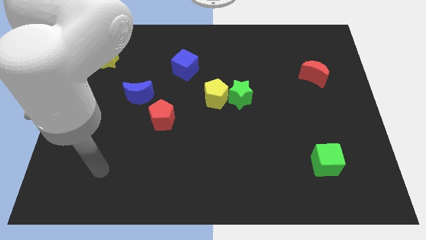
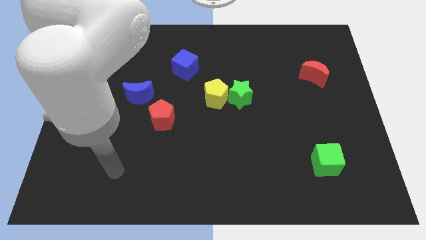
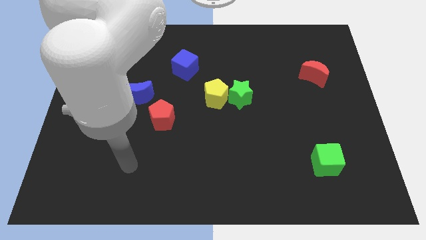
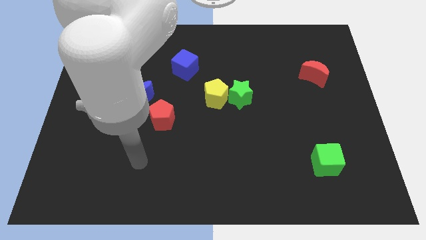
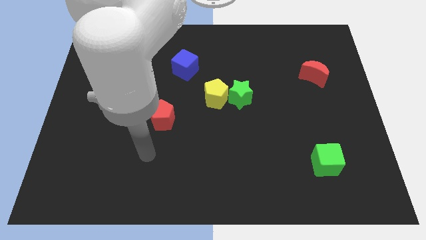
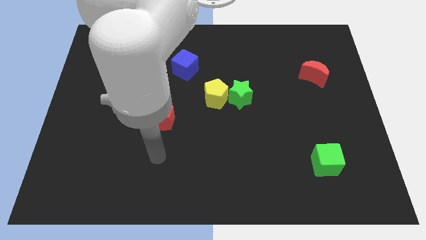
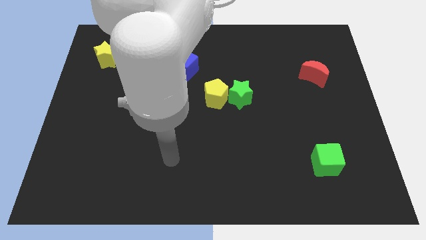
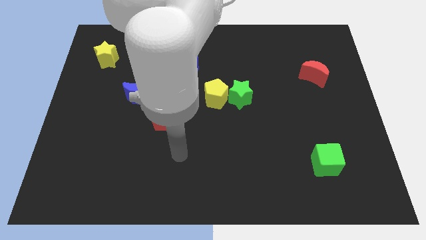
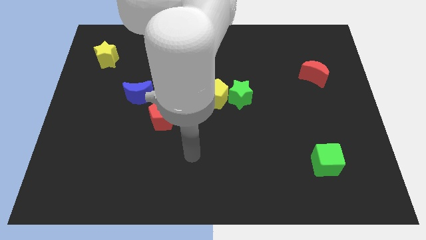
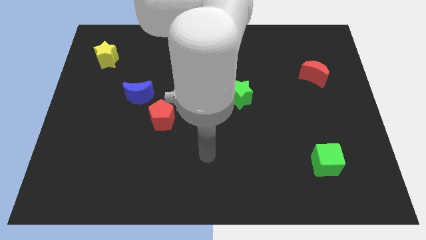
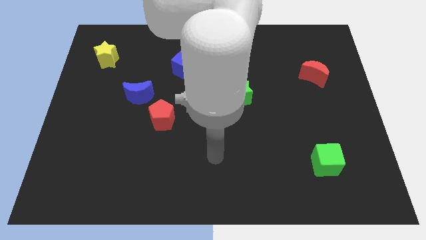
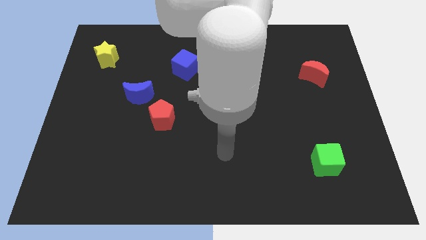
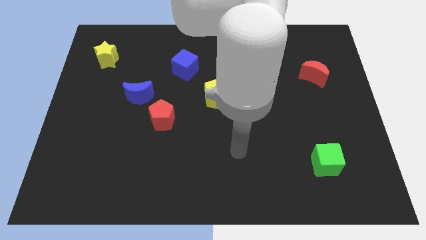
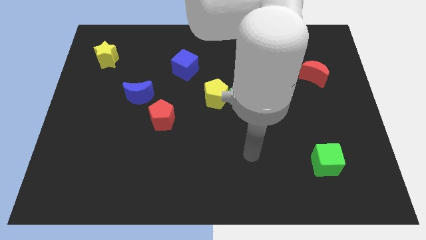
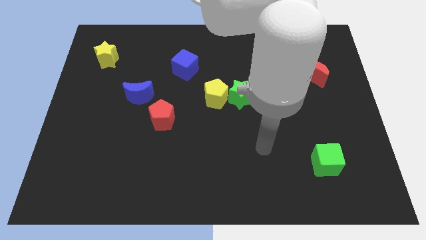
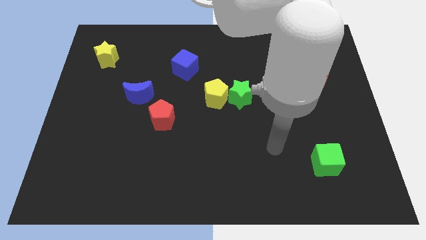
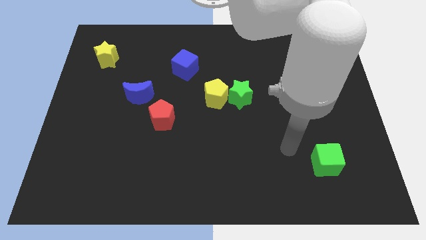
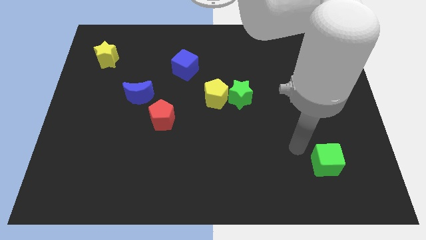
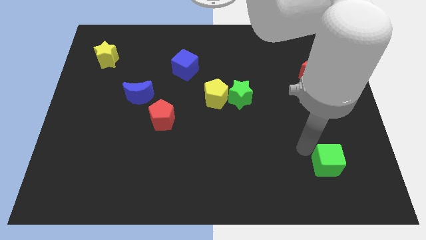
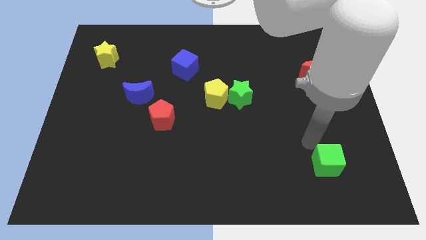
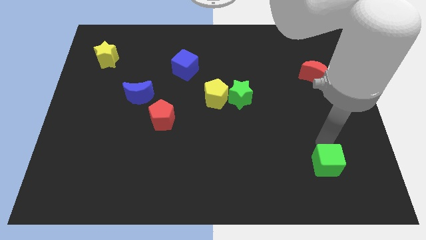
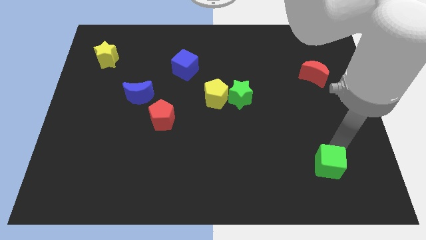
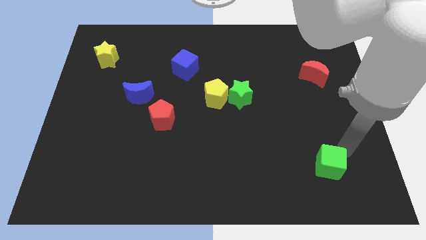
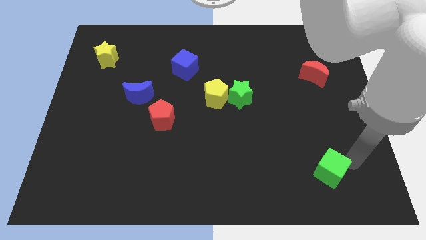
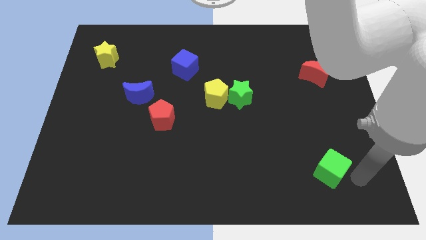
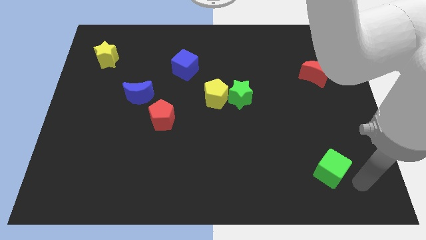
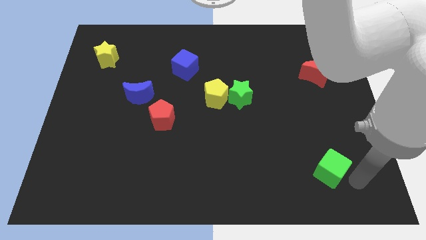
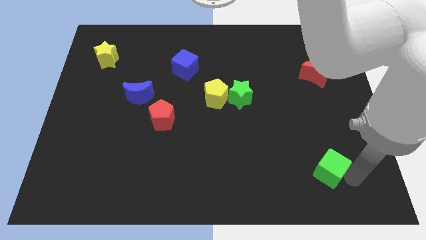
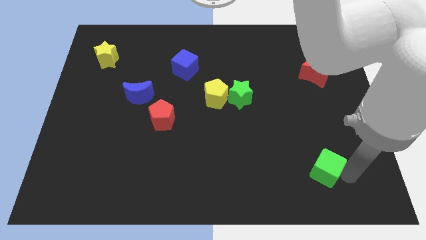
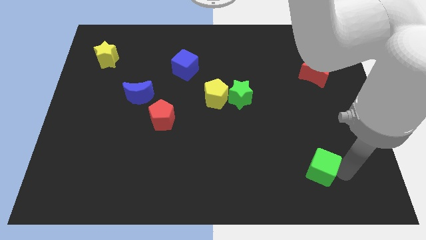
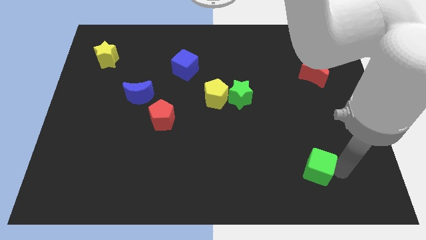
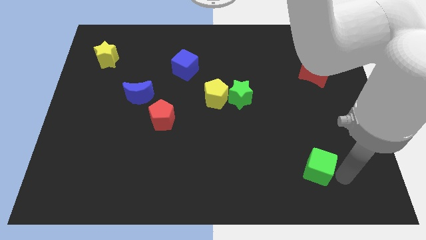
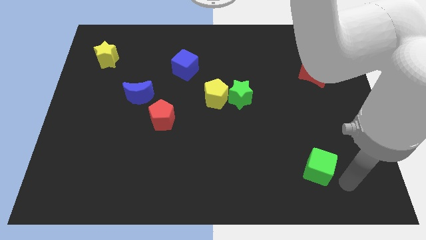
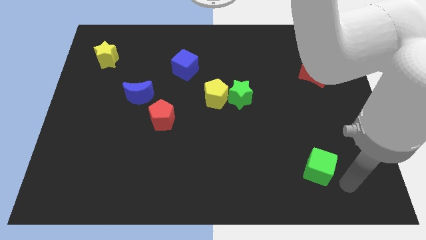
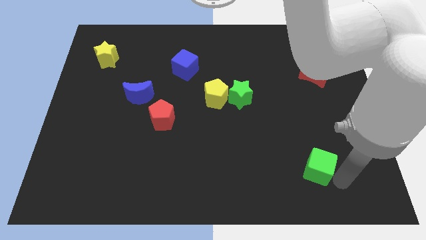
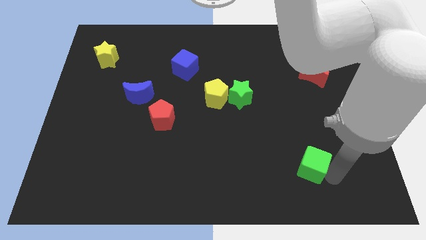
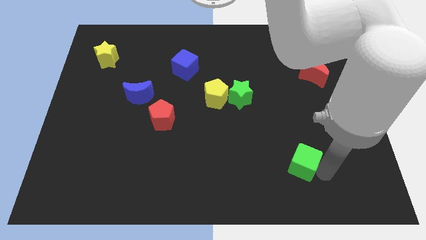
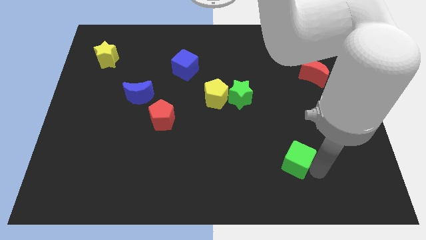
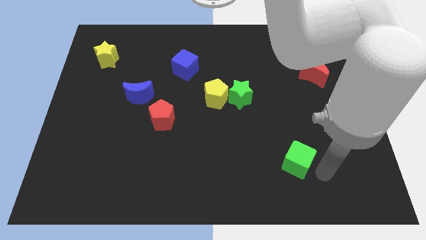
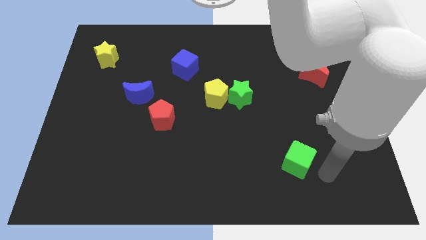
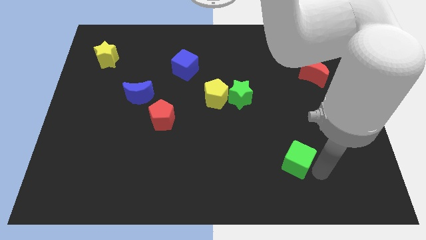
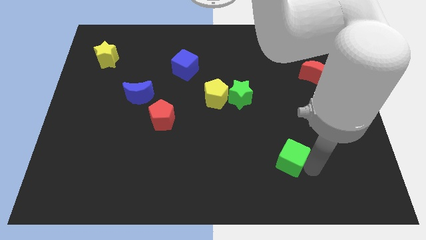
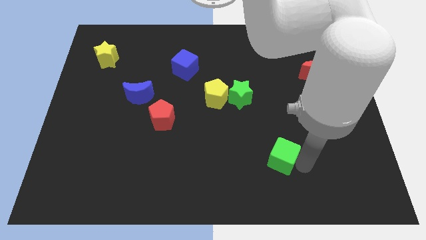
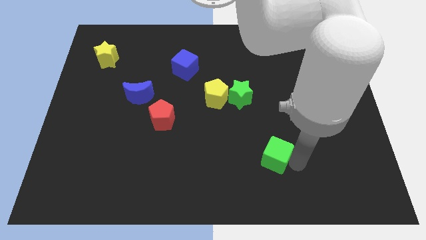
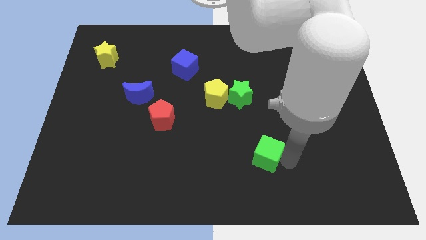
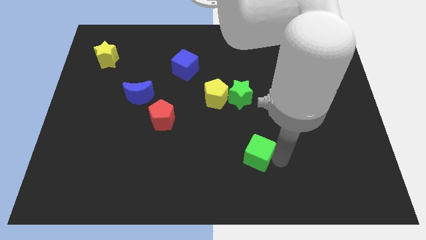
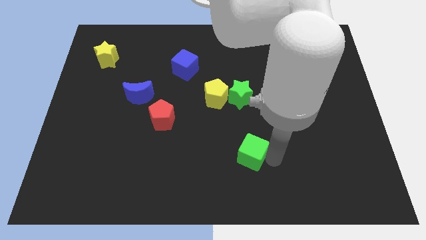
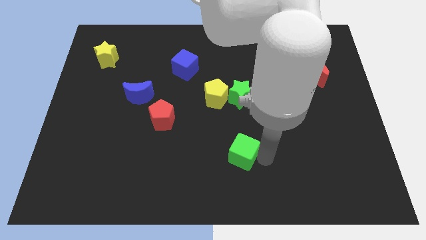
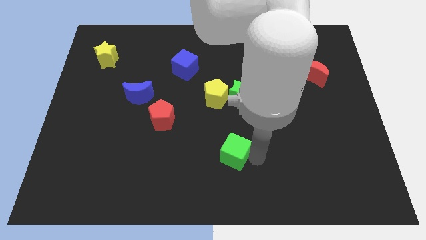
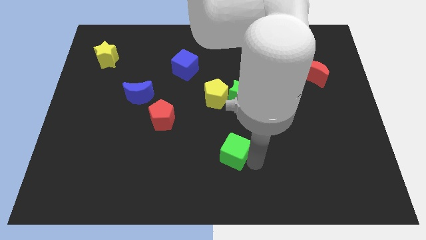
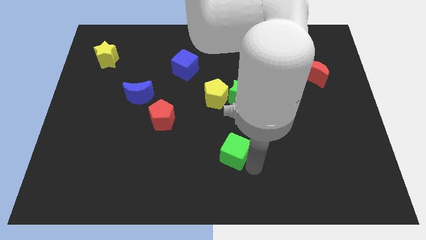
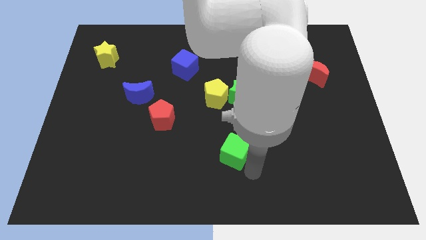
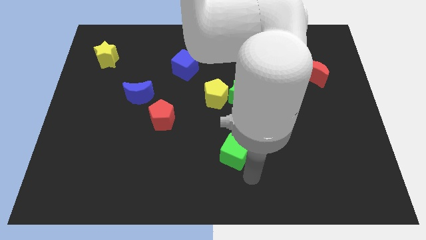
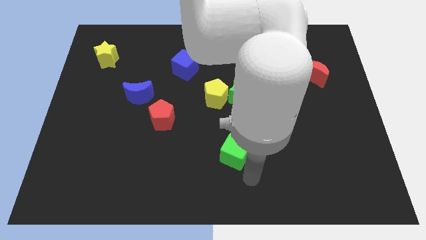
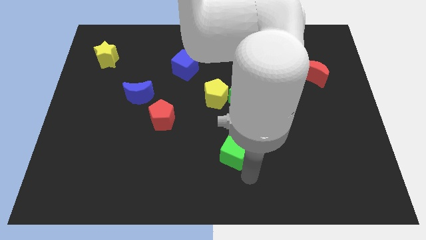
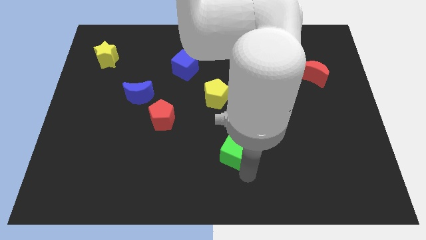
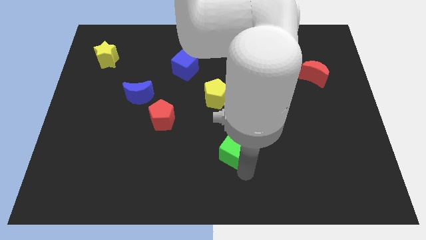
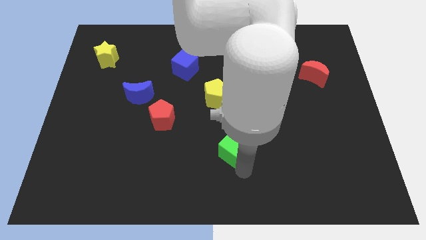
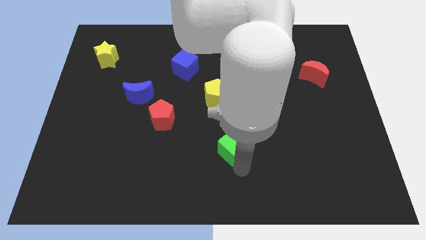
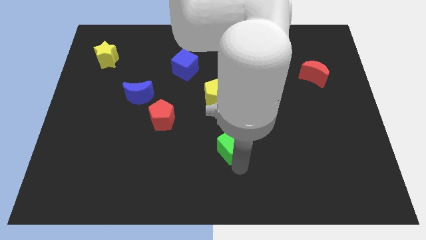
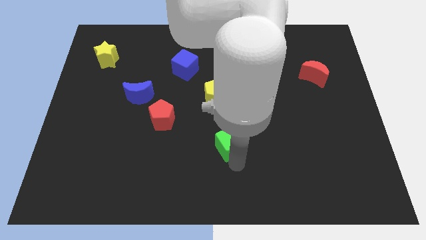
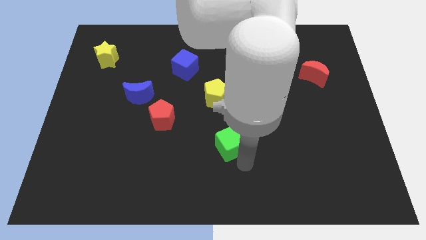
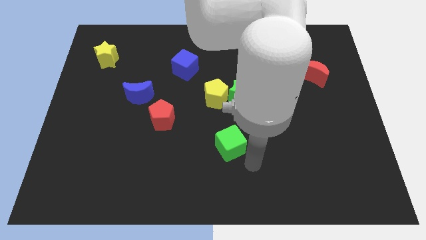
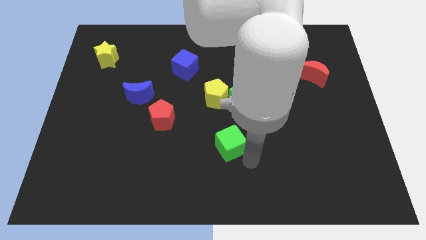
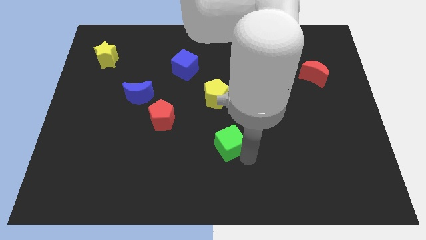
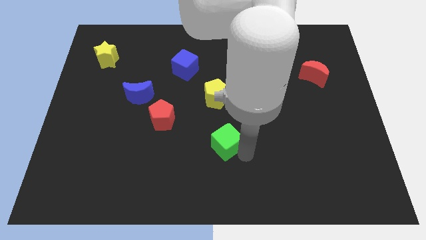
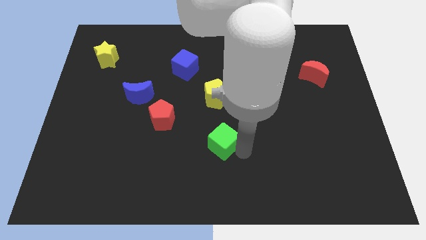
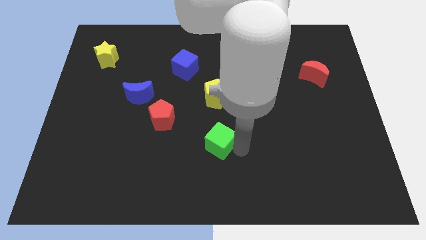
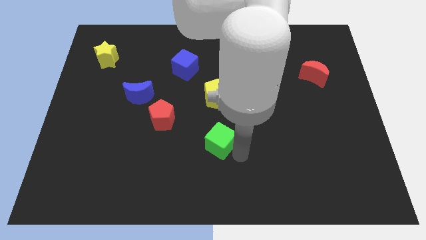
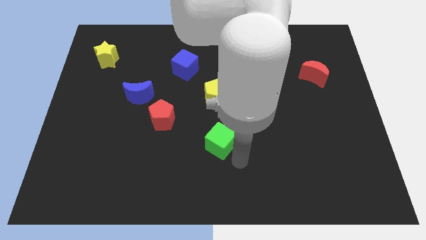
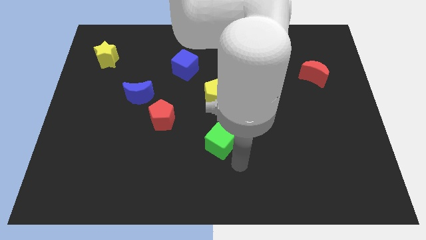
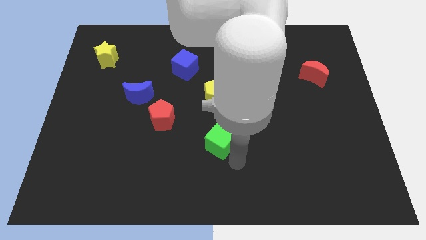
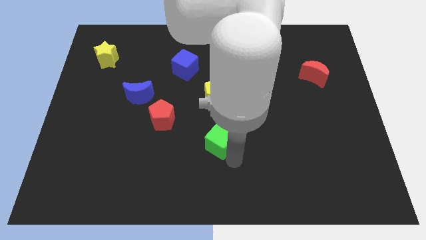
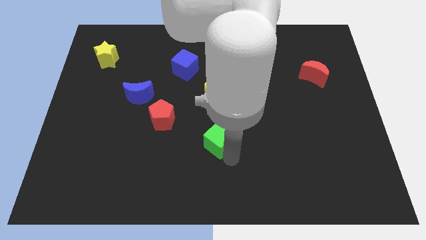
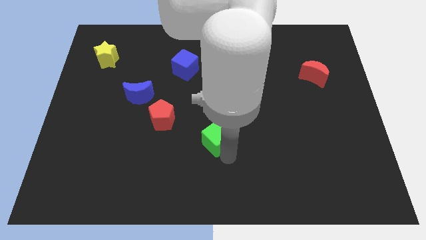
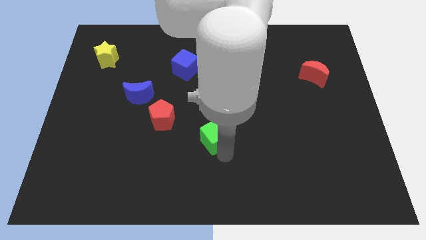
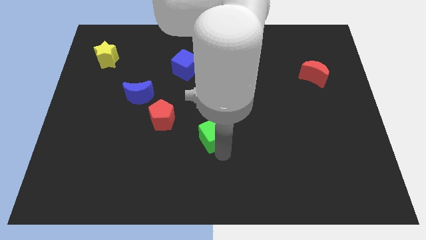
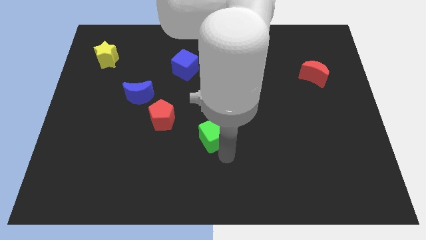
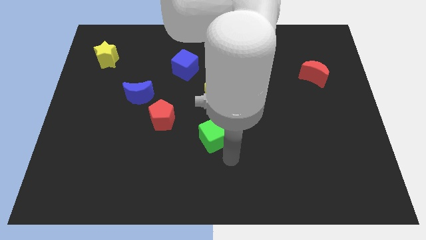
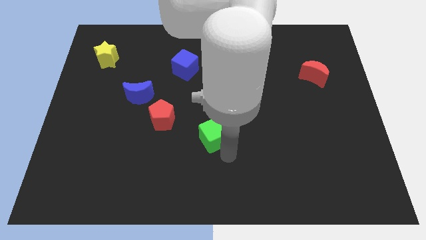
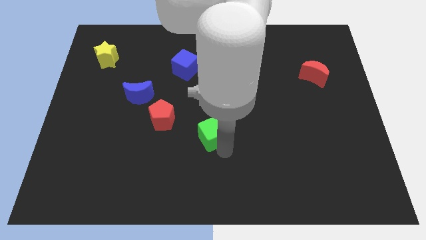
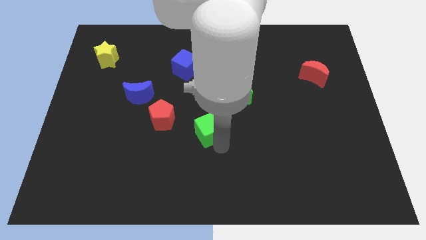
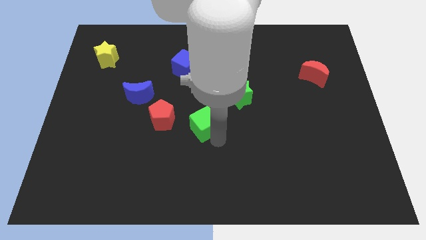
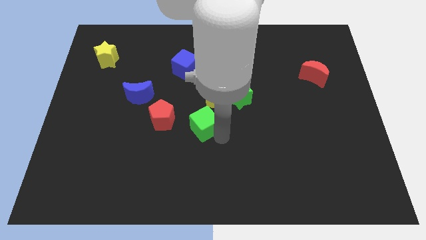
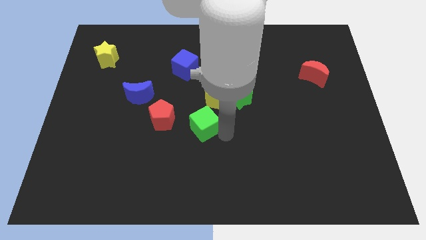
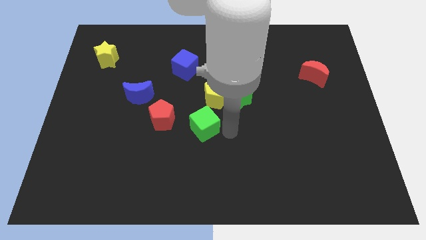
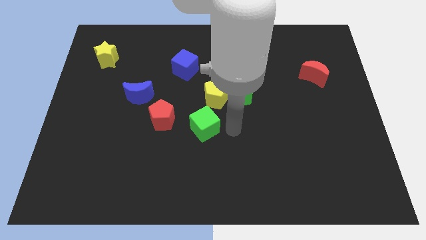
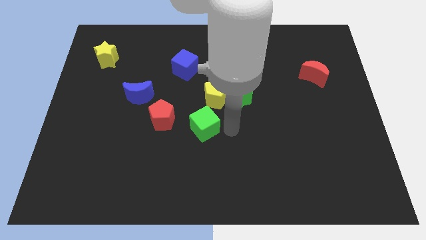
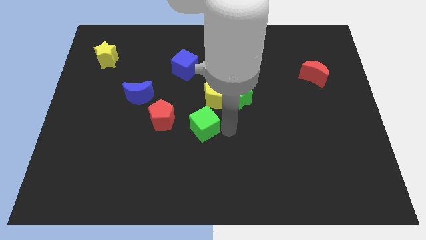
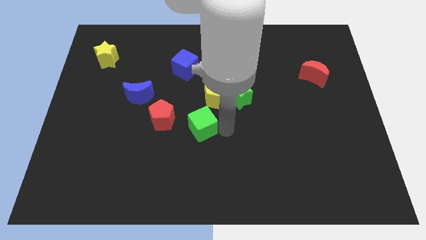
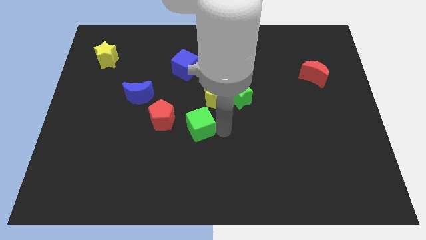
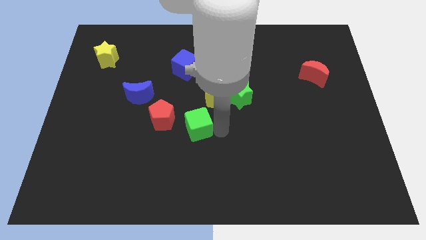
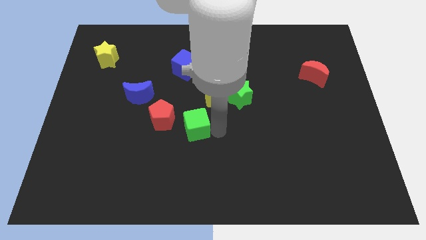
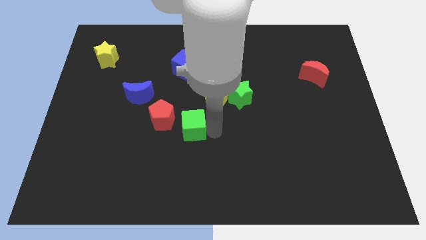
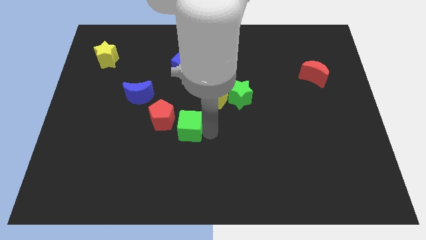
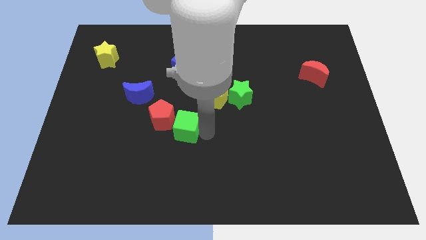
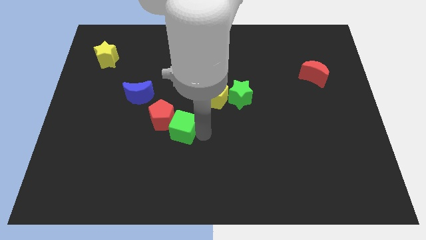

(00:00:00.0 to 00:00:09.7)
slide the green cube towards the red pentagon
